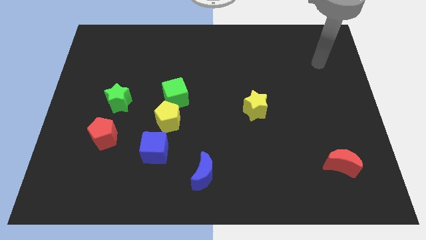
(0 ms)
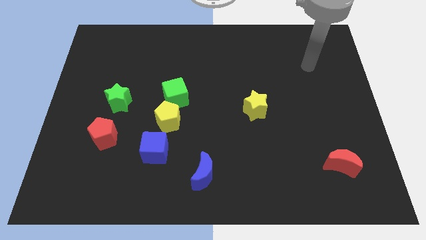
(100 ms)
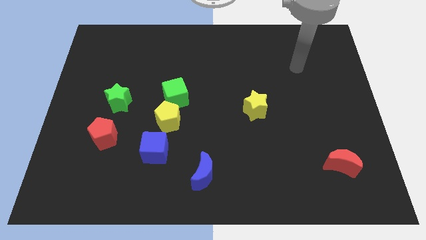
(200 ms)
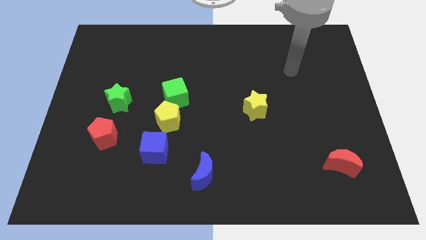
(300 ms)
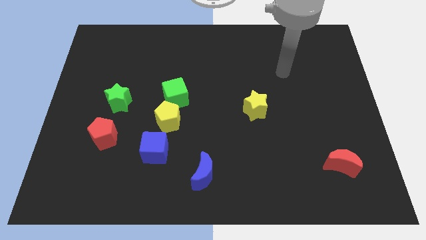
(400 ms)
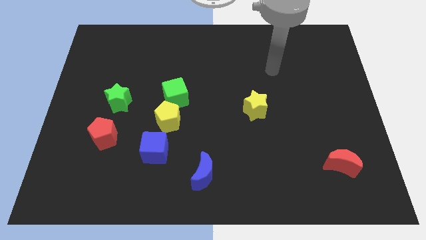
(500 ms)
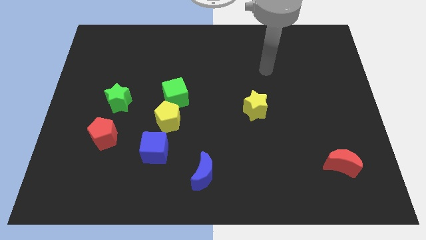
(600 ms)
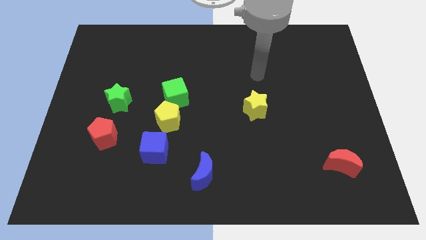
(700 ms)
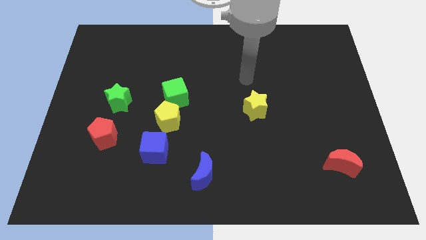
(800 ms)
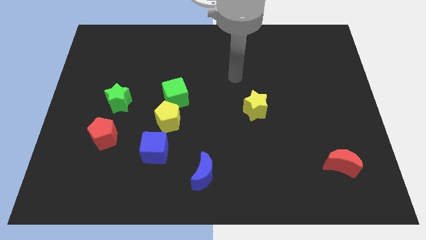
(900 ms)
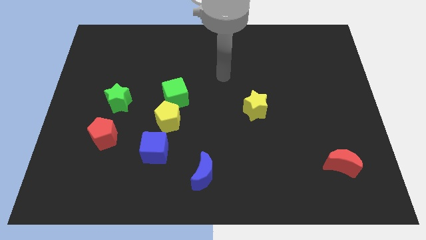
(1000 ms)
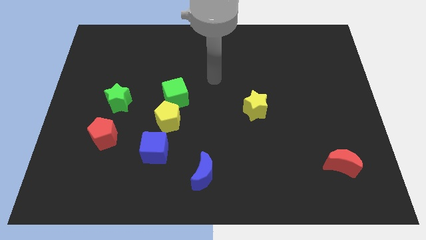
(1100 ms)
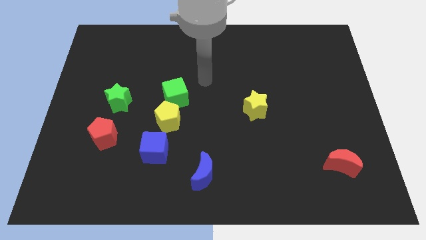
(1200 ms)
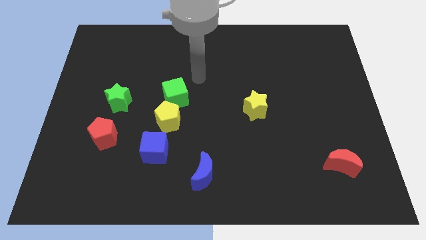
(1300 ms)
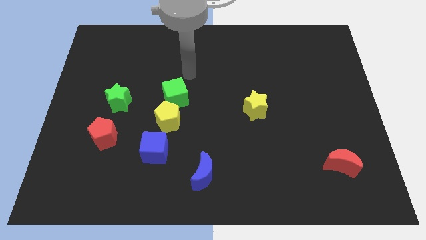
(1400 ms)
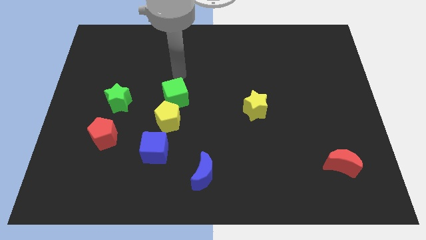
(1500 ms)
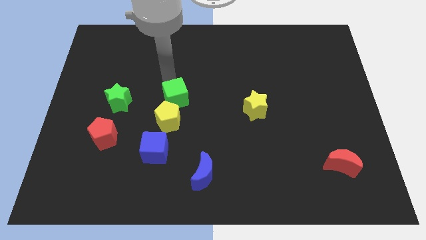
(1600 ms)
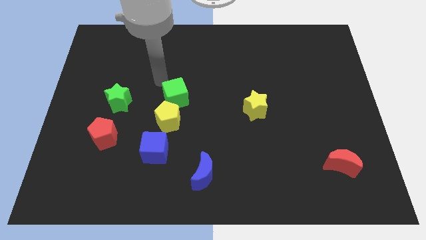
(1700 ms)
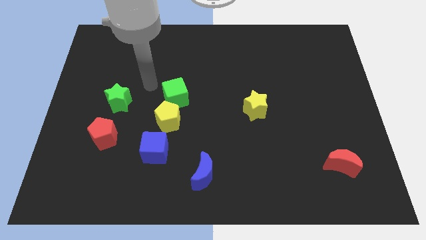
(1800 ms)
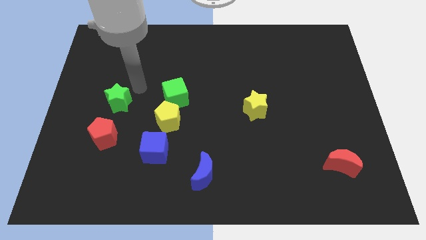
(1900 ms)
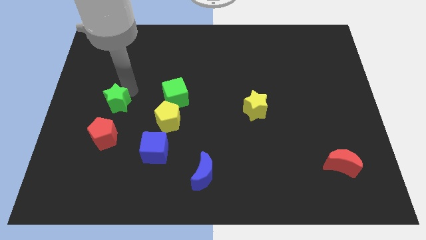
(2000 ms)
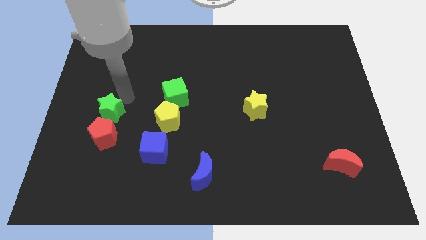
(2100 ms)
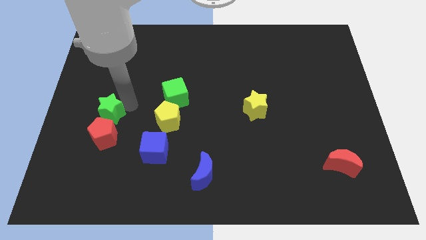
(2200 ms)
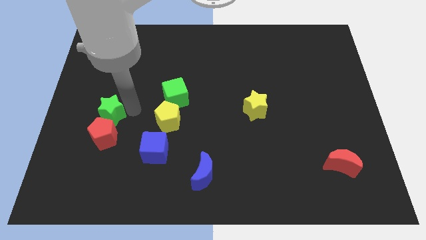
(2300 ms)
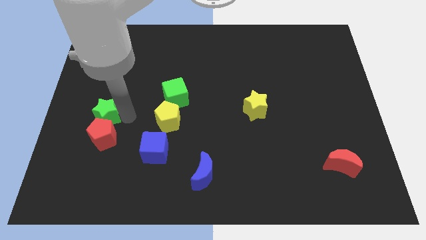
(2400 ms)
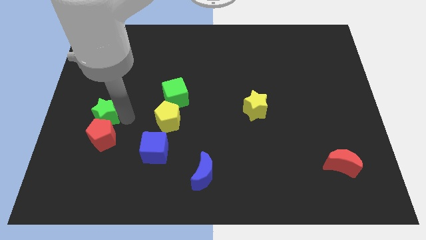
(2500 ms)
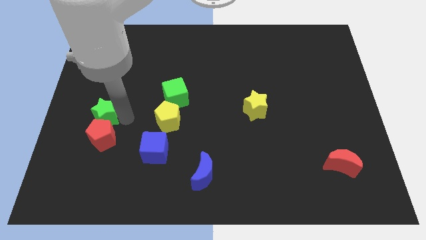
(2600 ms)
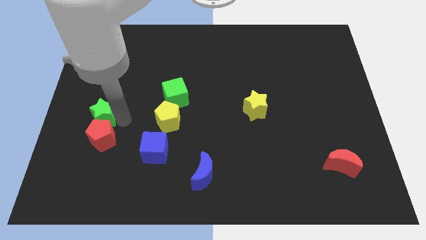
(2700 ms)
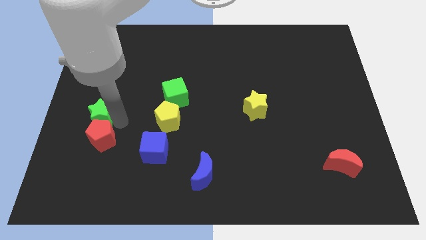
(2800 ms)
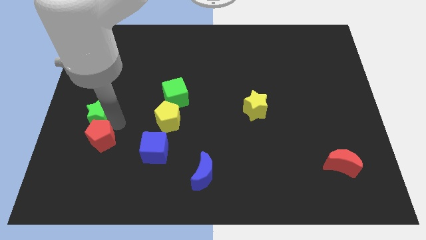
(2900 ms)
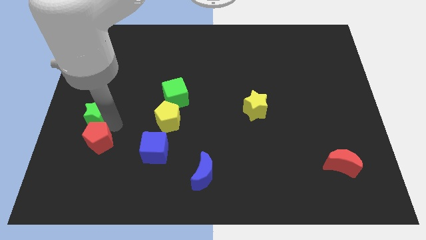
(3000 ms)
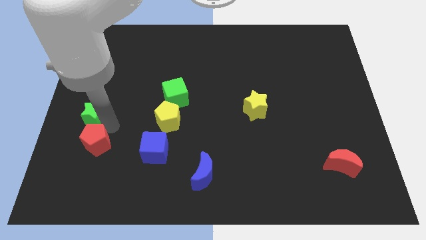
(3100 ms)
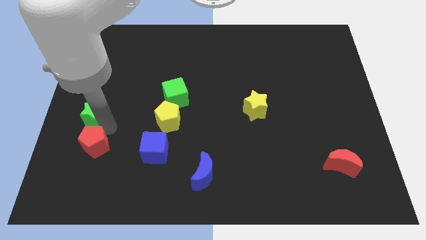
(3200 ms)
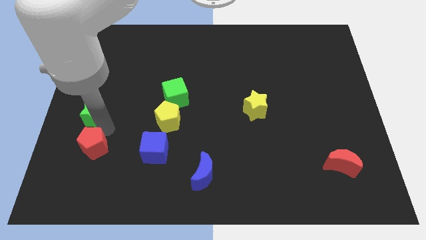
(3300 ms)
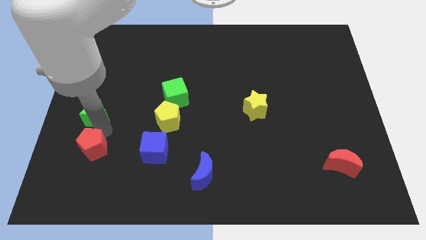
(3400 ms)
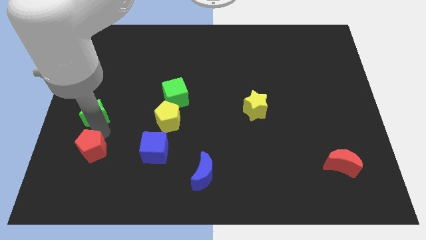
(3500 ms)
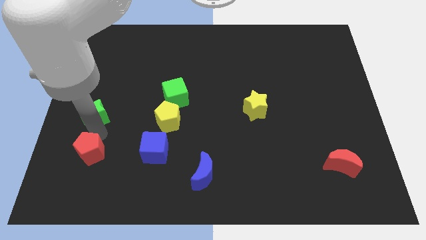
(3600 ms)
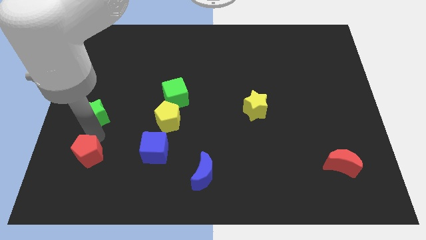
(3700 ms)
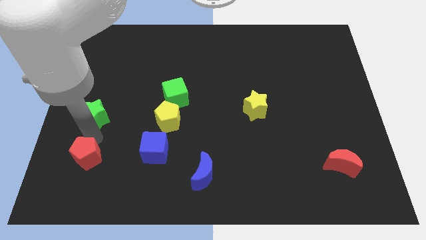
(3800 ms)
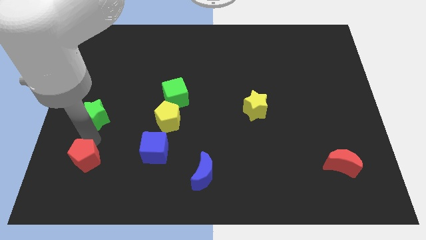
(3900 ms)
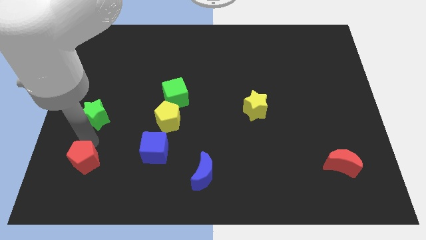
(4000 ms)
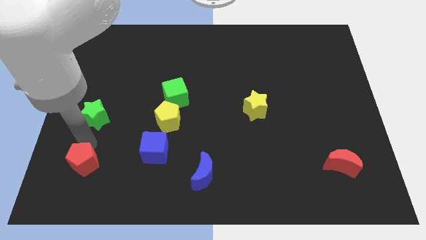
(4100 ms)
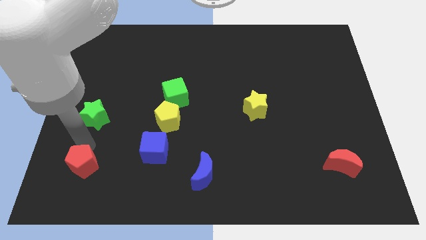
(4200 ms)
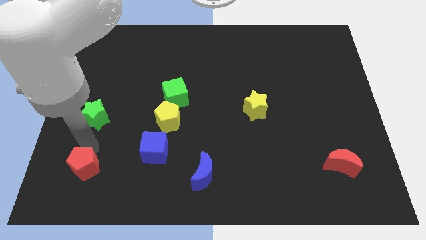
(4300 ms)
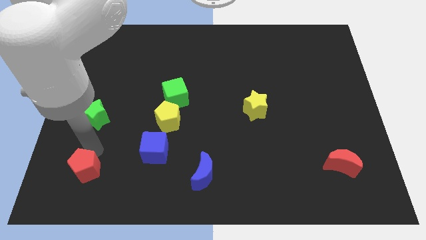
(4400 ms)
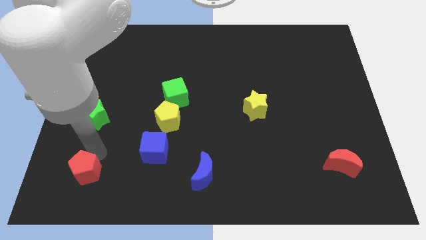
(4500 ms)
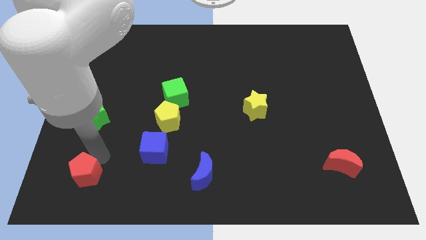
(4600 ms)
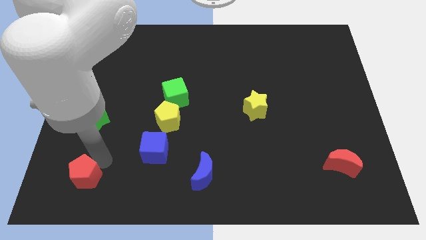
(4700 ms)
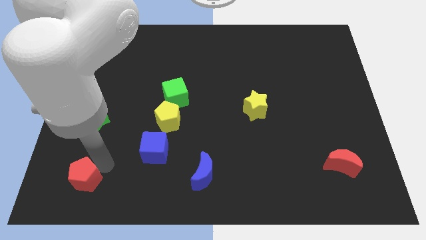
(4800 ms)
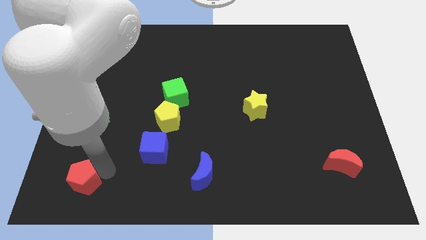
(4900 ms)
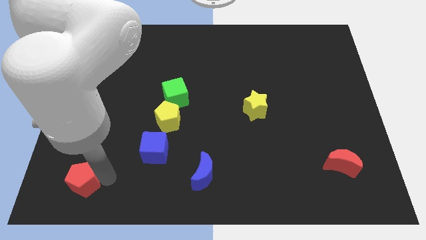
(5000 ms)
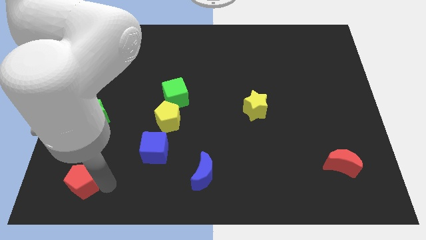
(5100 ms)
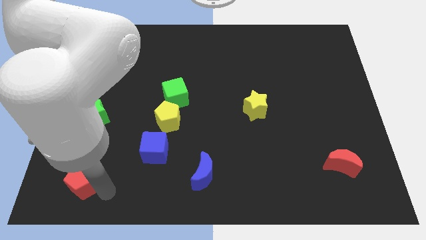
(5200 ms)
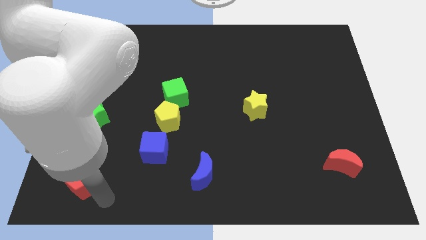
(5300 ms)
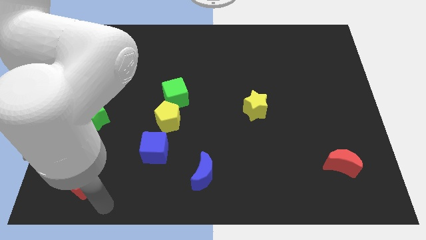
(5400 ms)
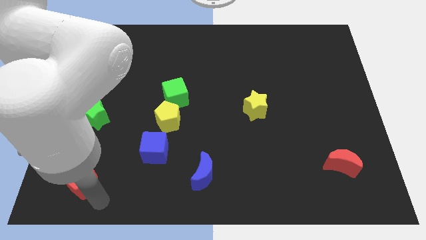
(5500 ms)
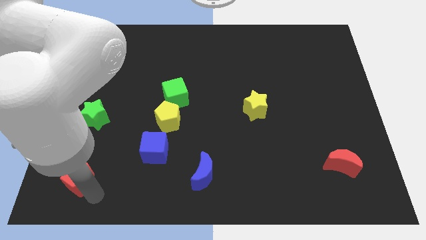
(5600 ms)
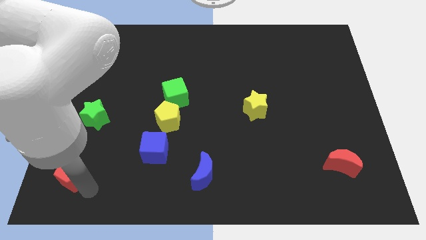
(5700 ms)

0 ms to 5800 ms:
move the red pentagon to the bottom left of the board
